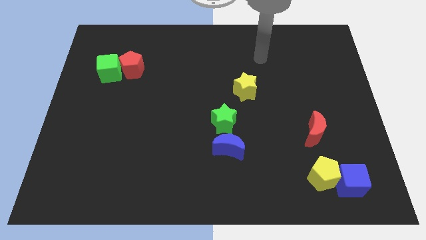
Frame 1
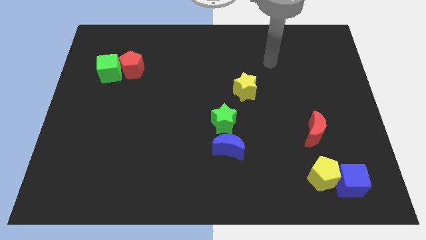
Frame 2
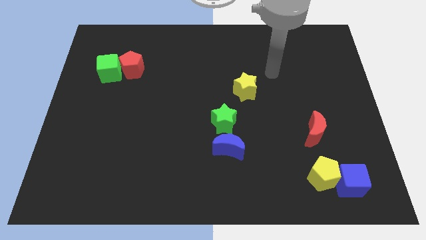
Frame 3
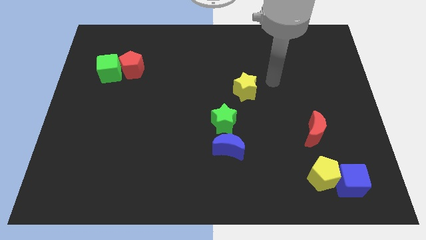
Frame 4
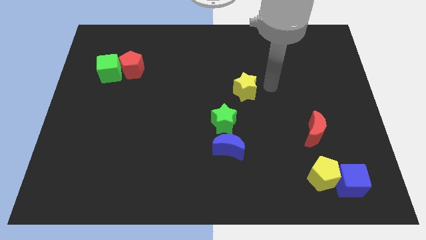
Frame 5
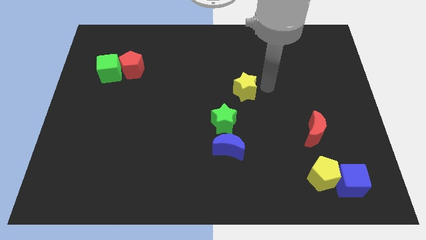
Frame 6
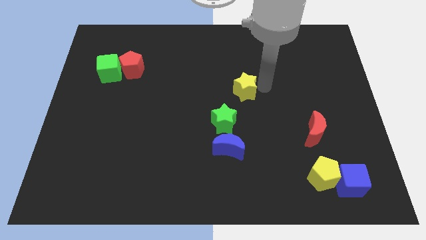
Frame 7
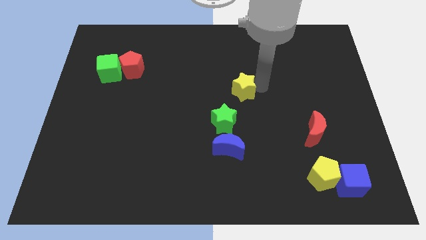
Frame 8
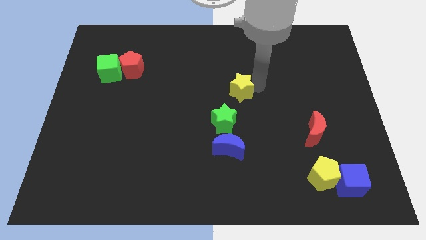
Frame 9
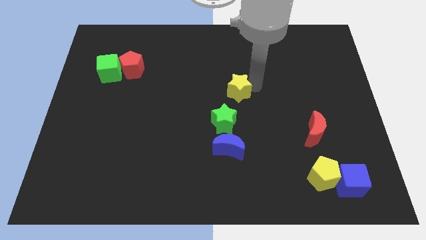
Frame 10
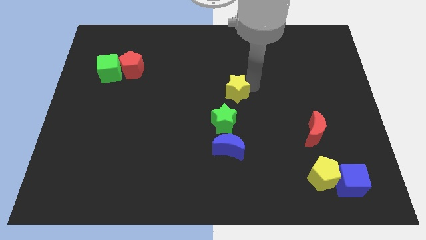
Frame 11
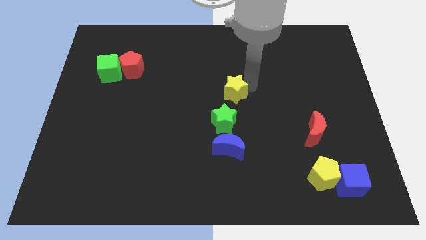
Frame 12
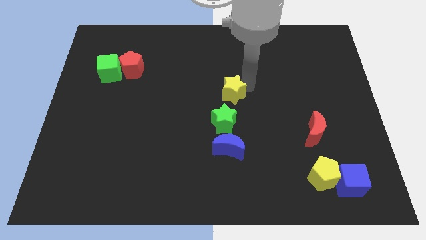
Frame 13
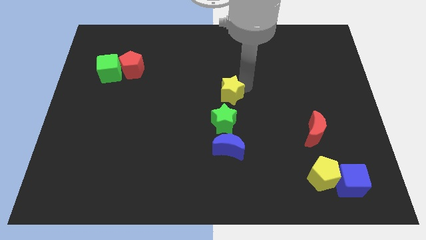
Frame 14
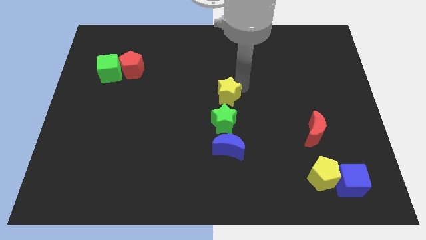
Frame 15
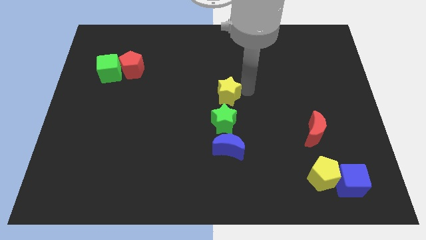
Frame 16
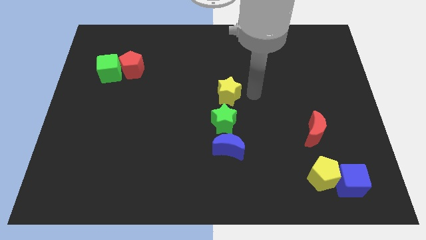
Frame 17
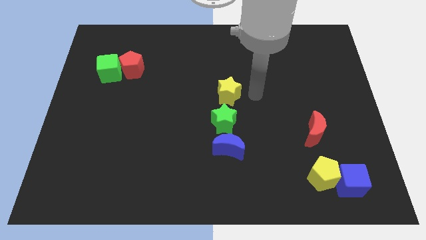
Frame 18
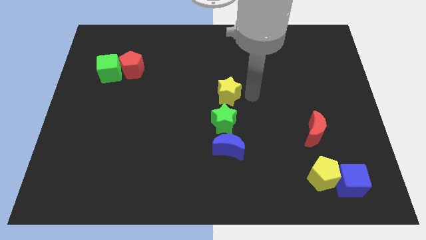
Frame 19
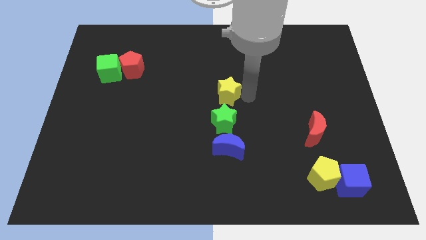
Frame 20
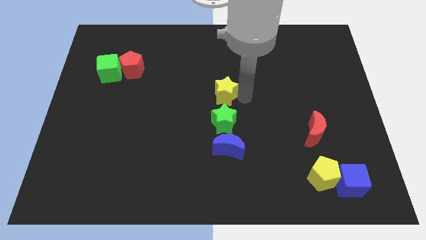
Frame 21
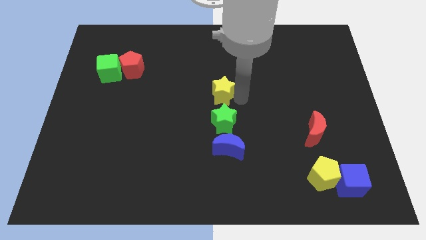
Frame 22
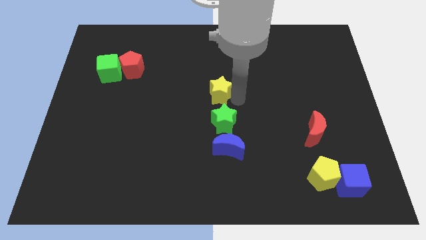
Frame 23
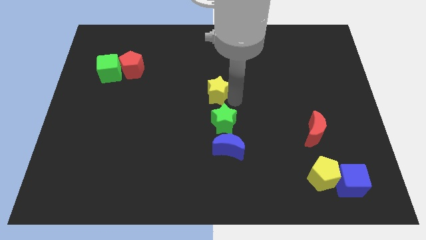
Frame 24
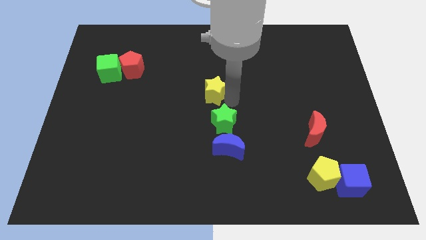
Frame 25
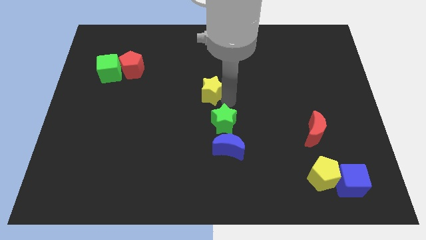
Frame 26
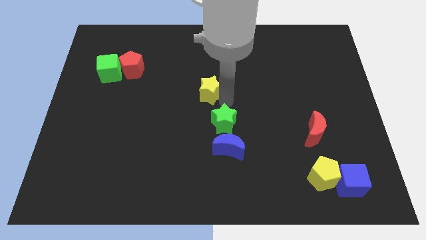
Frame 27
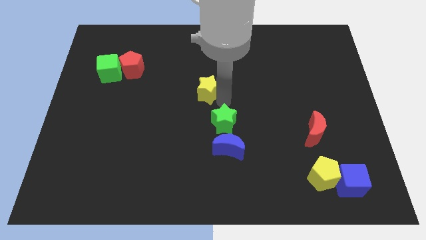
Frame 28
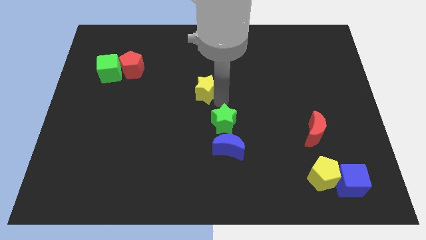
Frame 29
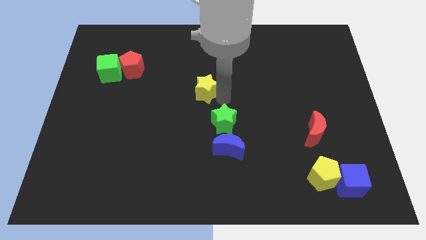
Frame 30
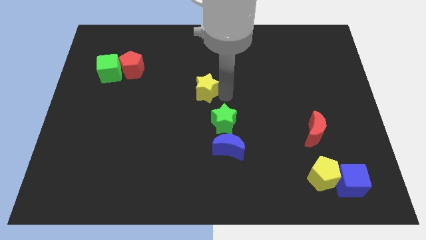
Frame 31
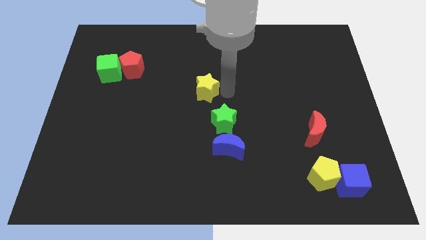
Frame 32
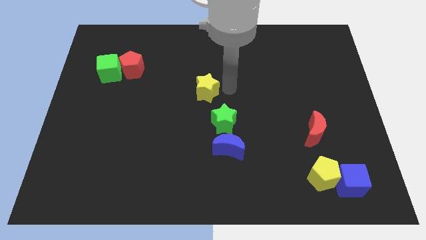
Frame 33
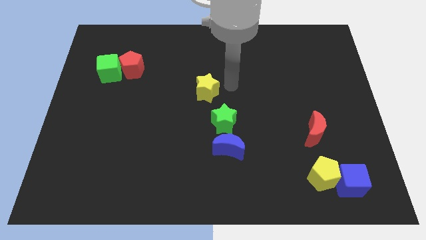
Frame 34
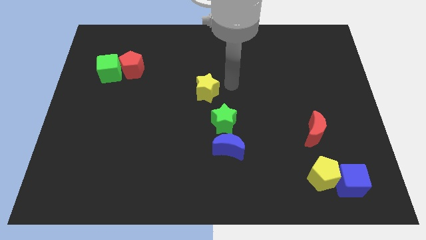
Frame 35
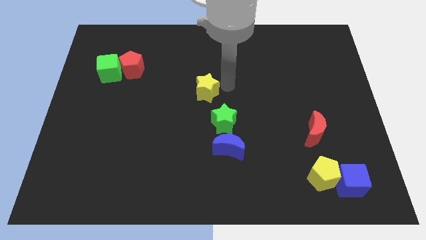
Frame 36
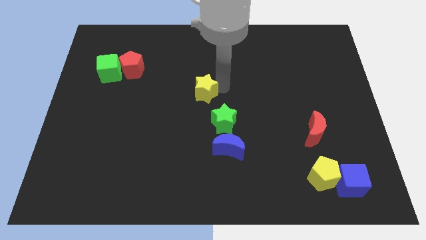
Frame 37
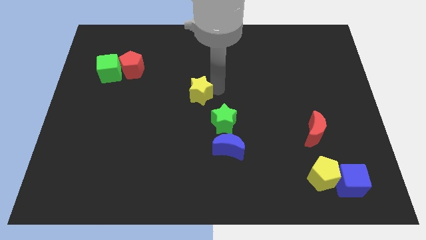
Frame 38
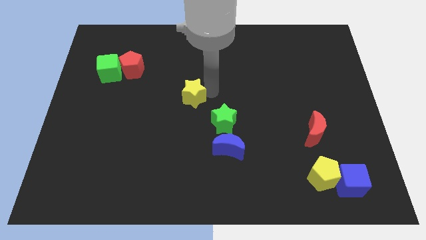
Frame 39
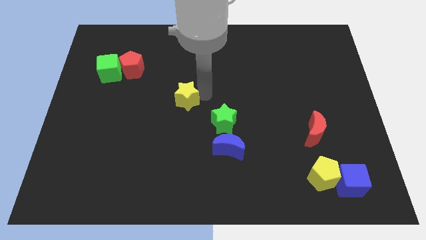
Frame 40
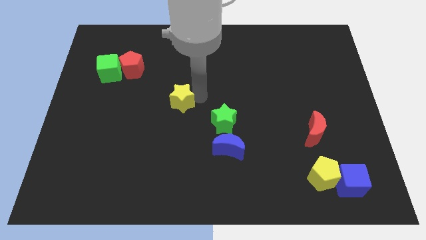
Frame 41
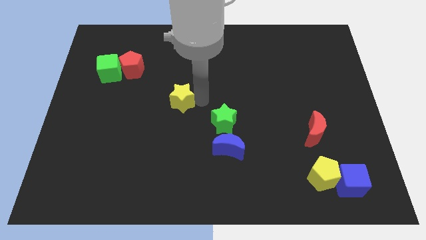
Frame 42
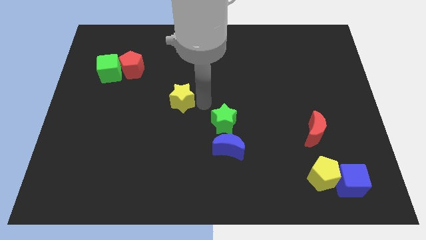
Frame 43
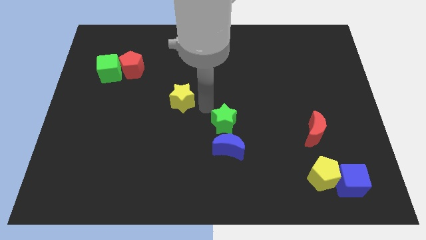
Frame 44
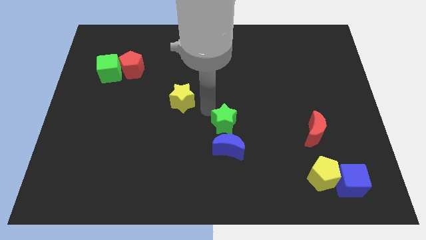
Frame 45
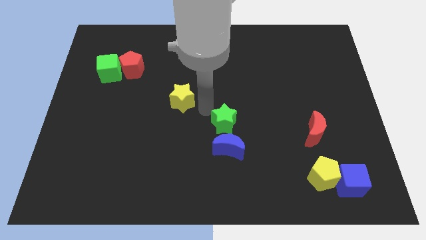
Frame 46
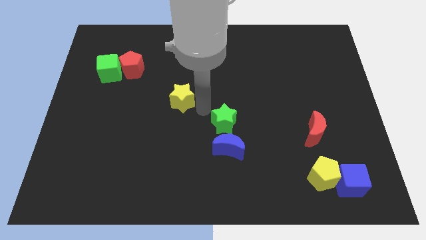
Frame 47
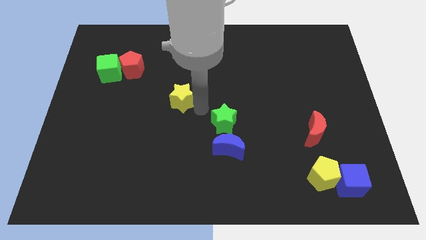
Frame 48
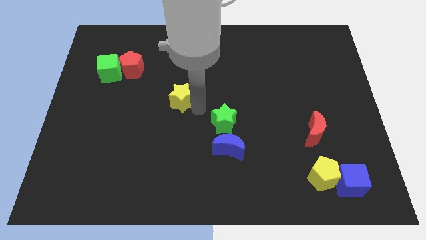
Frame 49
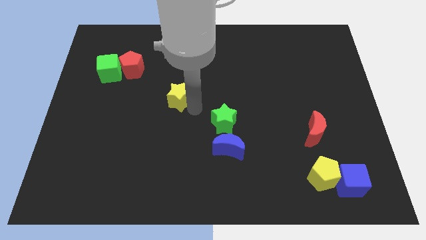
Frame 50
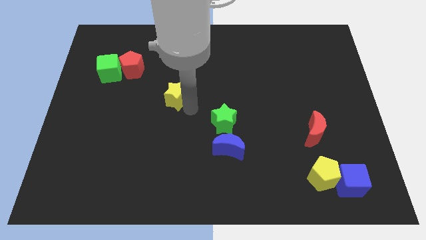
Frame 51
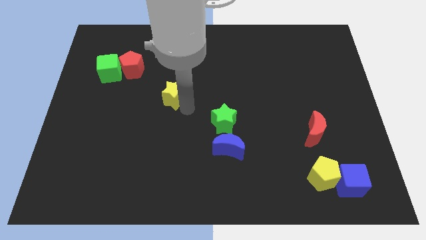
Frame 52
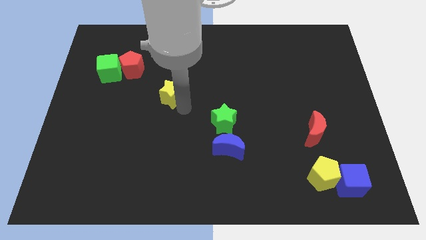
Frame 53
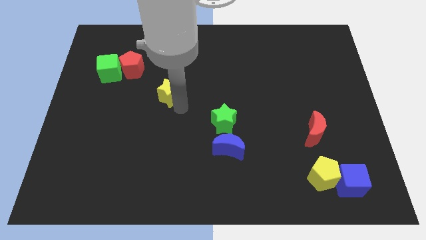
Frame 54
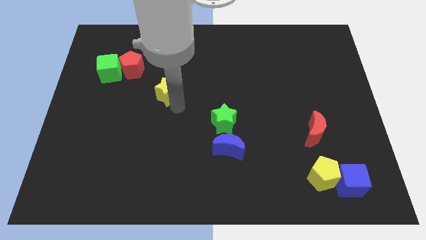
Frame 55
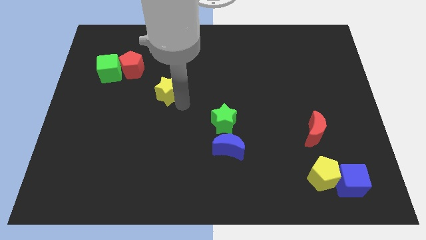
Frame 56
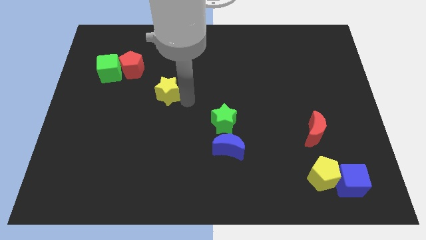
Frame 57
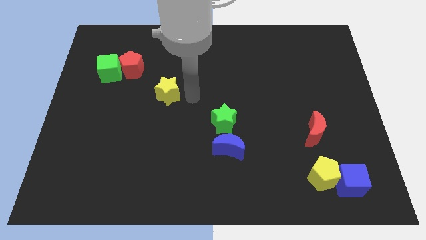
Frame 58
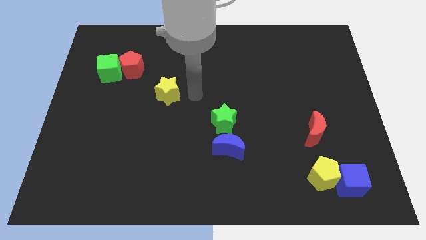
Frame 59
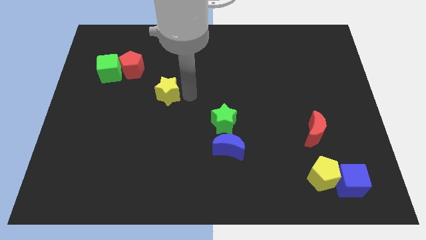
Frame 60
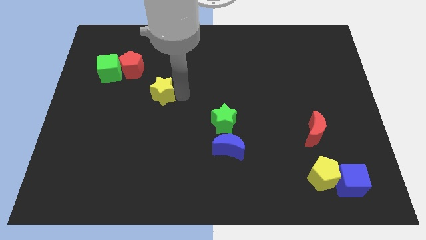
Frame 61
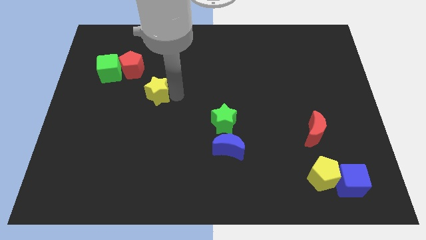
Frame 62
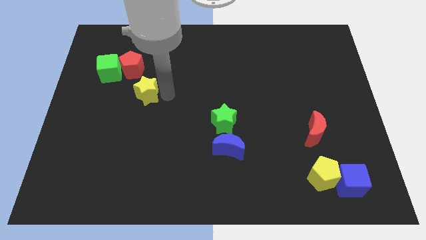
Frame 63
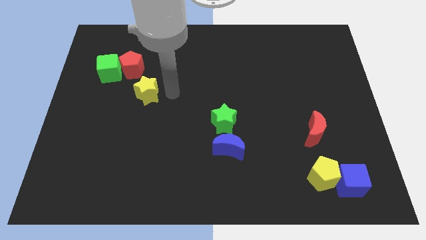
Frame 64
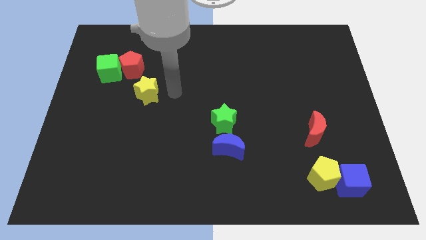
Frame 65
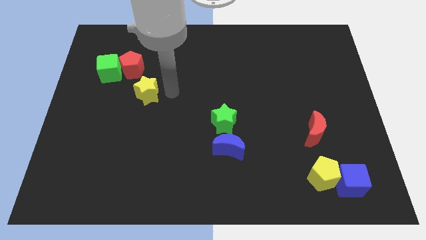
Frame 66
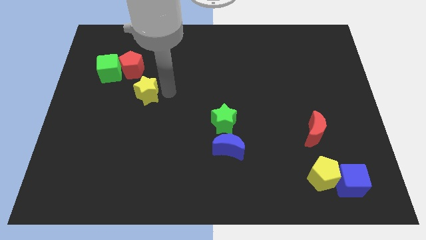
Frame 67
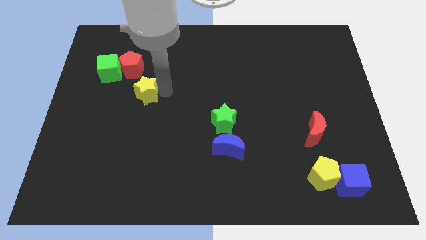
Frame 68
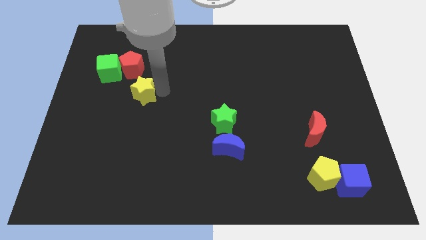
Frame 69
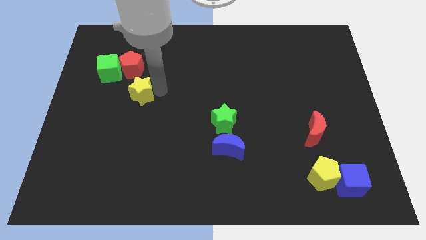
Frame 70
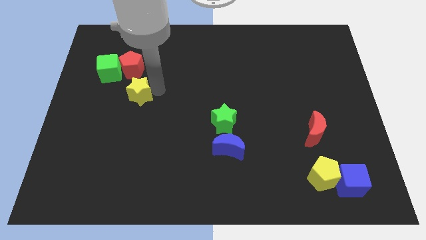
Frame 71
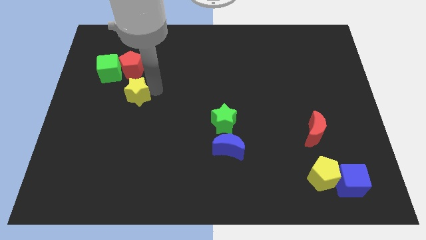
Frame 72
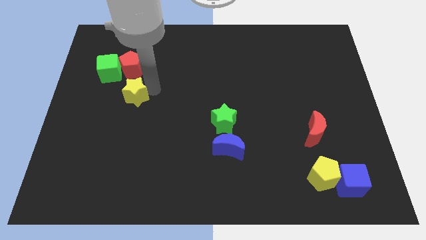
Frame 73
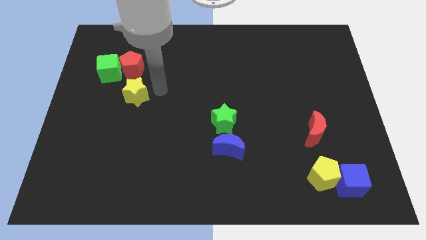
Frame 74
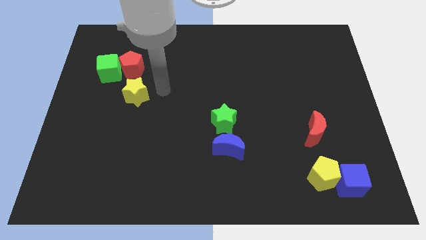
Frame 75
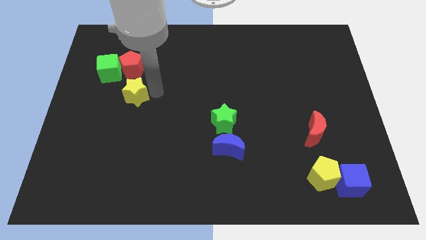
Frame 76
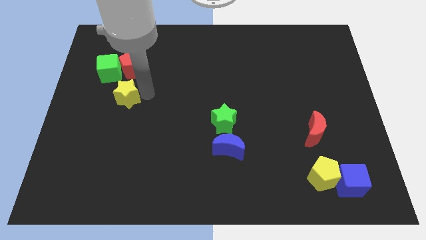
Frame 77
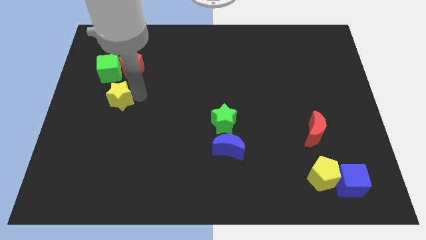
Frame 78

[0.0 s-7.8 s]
move the yellow star to the bottom of the green cube

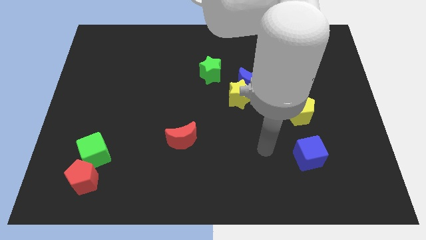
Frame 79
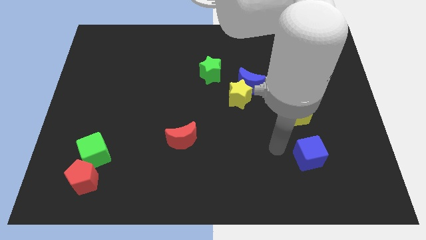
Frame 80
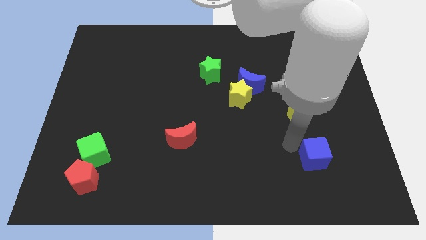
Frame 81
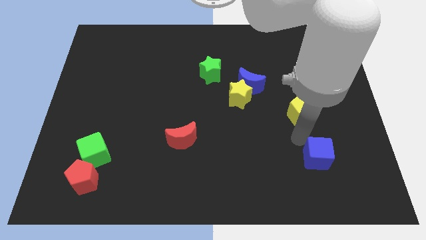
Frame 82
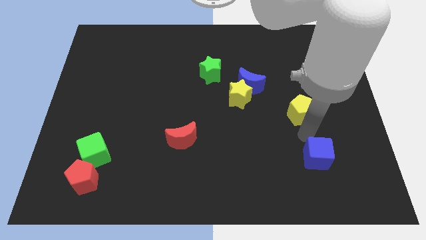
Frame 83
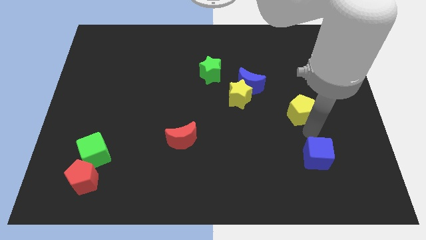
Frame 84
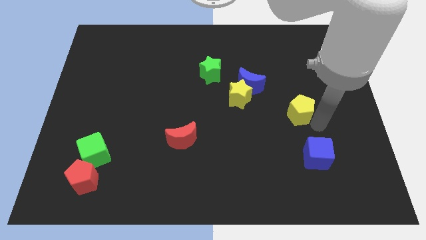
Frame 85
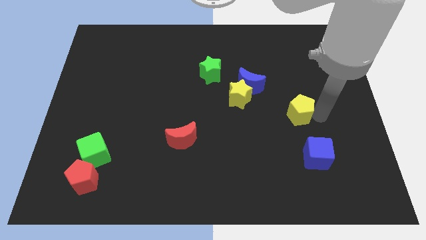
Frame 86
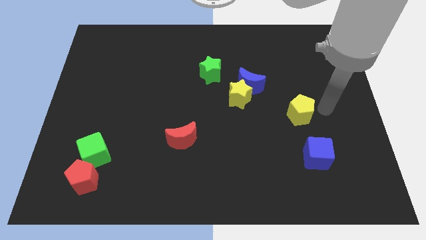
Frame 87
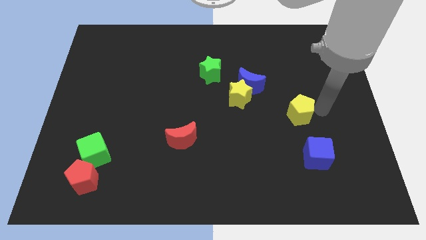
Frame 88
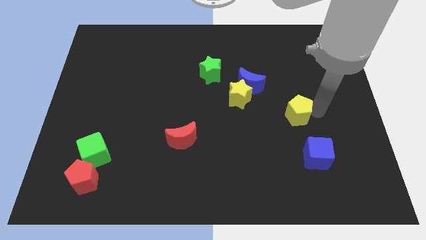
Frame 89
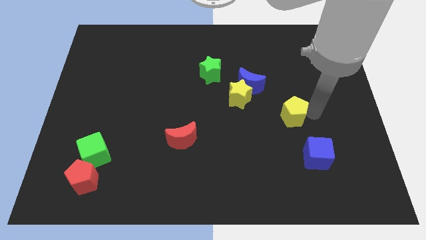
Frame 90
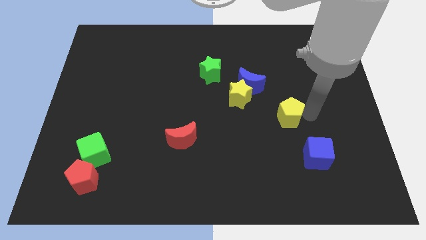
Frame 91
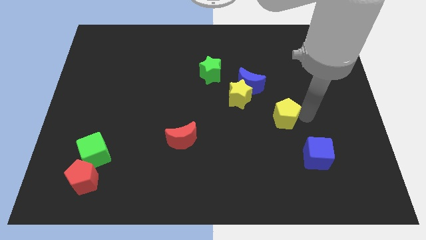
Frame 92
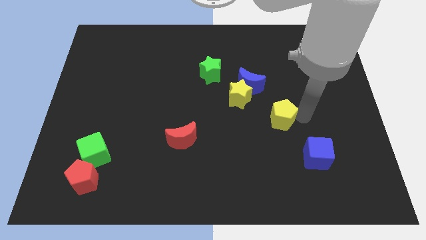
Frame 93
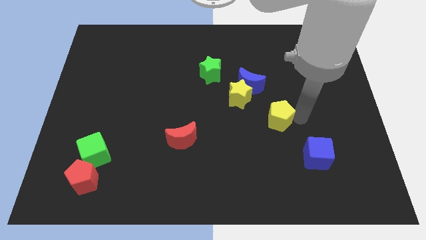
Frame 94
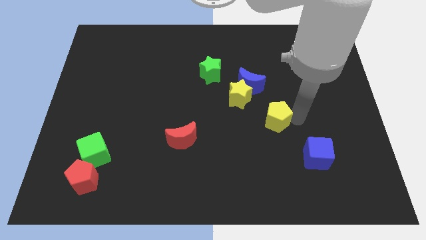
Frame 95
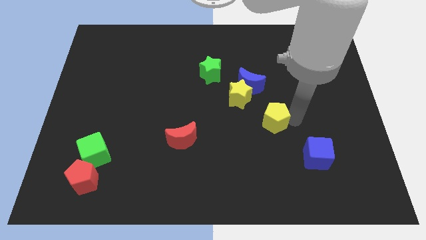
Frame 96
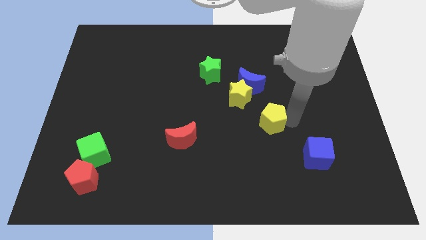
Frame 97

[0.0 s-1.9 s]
put the yellow pentagon to the bottom of the blue moon
